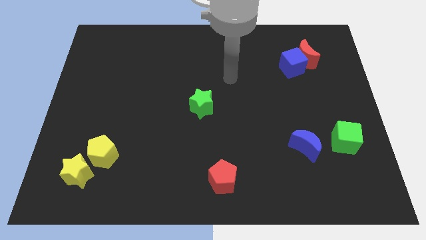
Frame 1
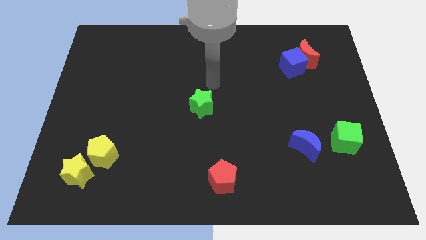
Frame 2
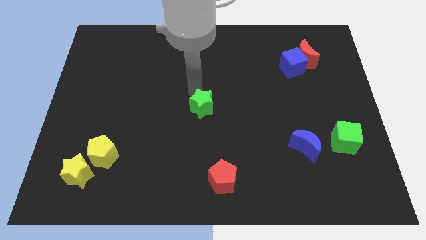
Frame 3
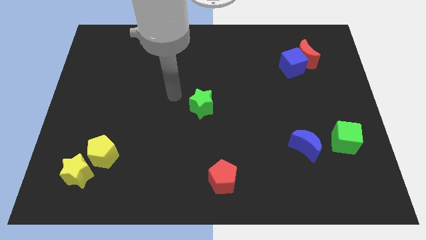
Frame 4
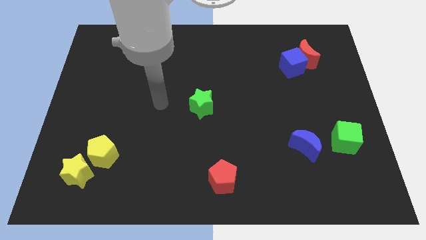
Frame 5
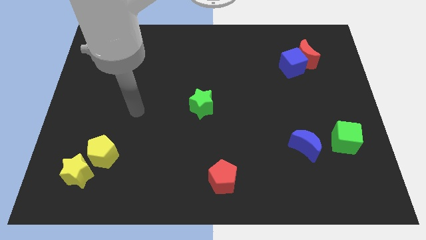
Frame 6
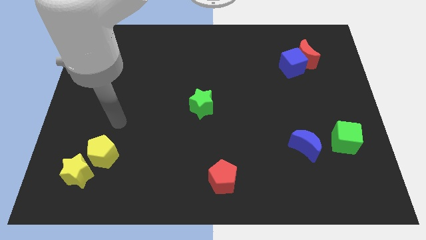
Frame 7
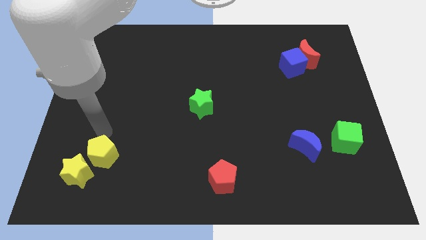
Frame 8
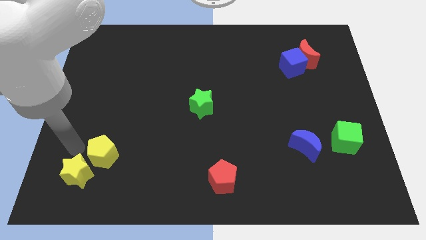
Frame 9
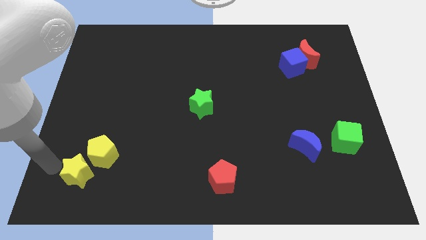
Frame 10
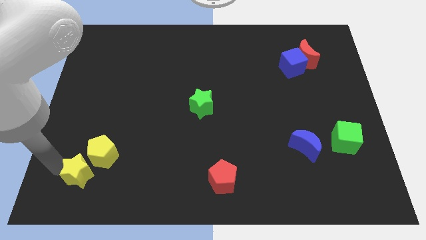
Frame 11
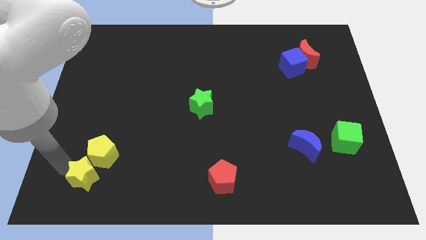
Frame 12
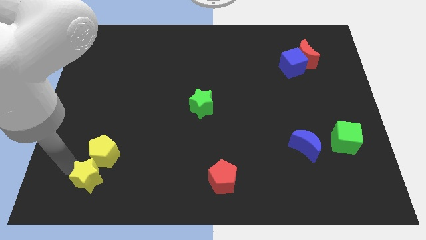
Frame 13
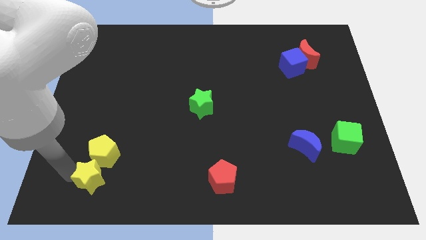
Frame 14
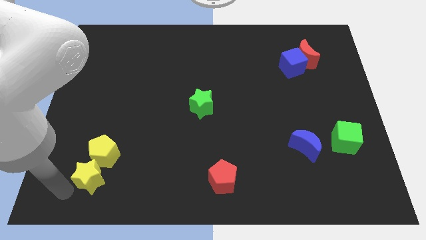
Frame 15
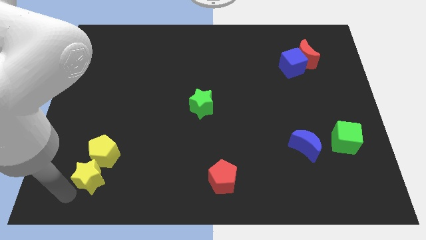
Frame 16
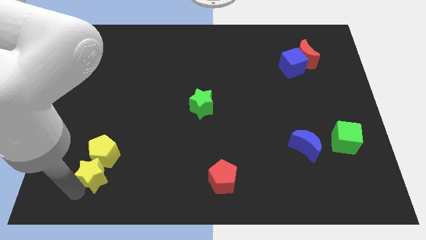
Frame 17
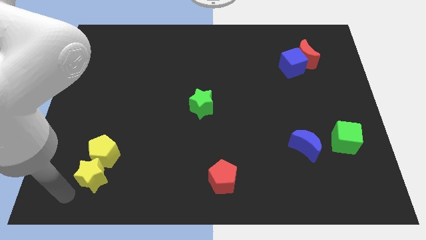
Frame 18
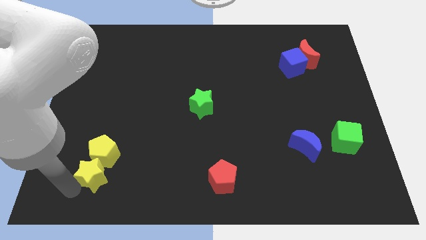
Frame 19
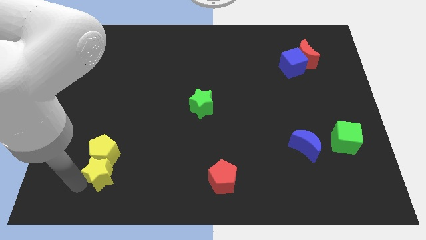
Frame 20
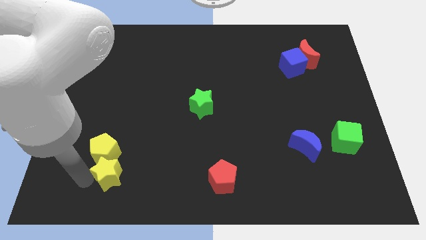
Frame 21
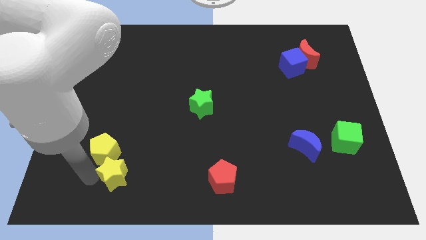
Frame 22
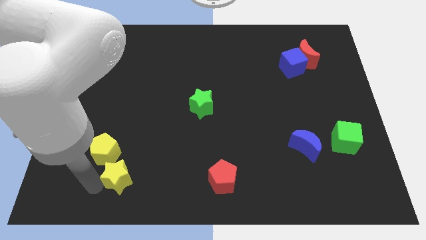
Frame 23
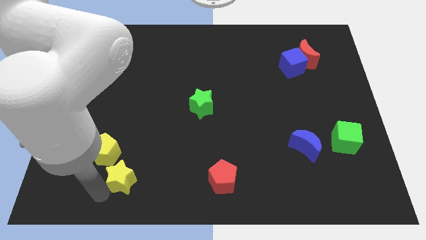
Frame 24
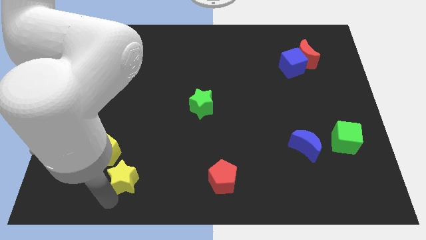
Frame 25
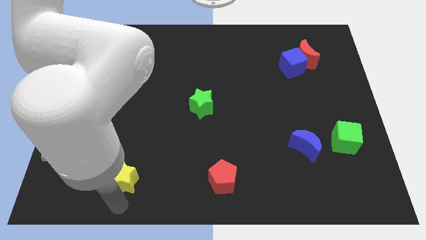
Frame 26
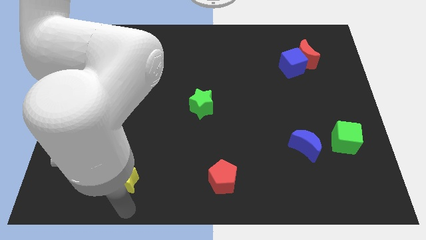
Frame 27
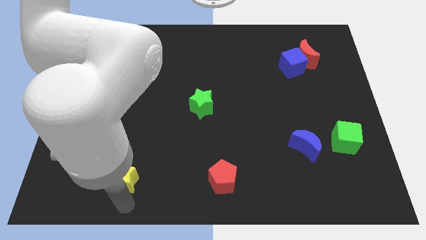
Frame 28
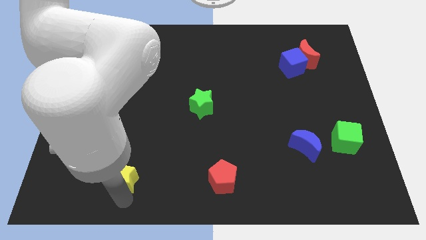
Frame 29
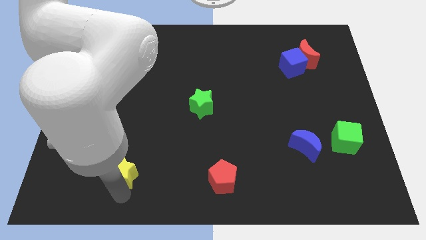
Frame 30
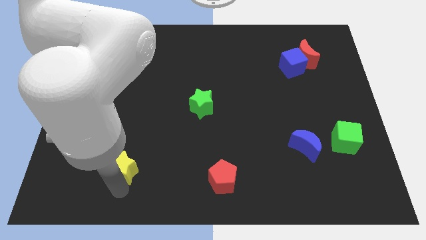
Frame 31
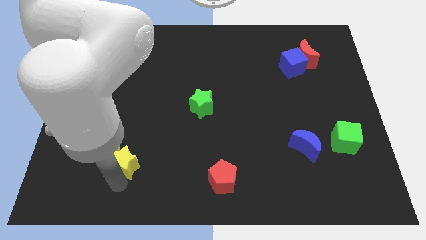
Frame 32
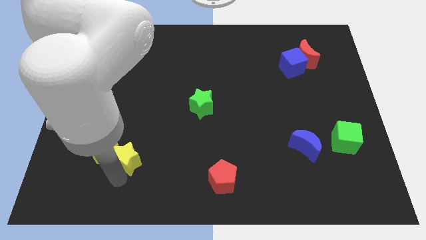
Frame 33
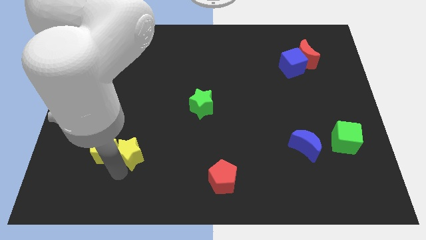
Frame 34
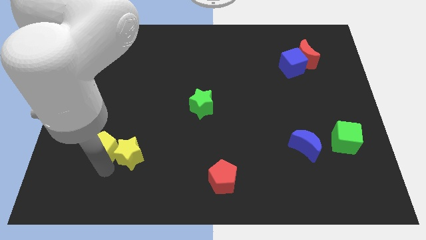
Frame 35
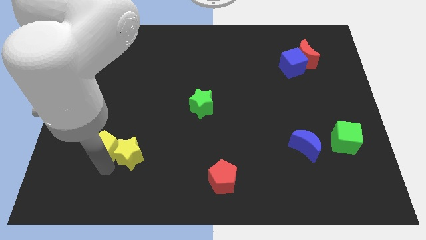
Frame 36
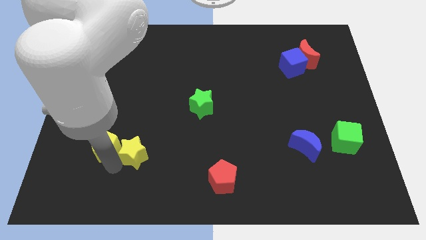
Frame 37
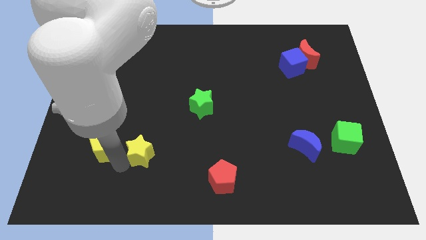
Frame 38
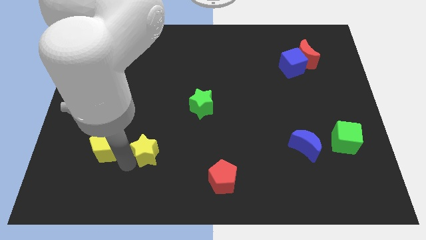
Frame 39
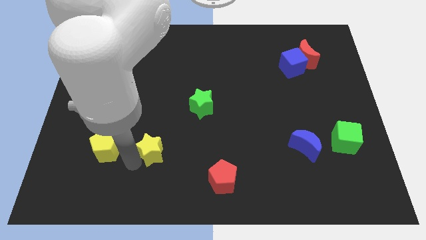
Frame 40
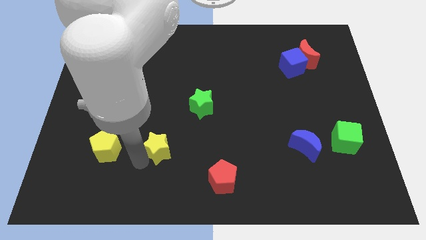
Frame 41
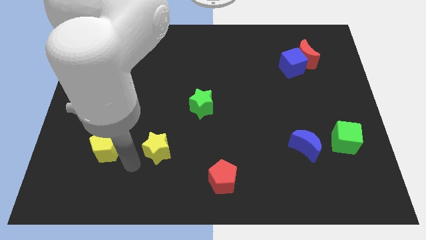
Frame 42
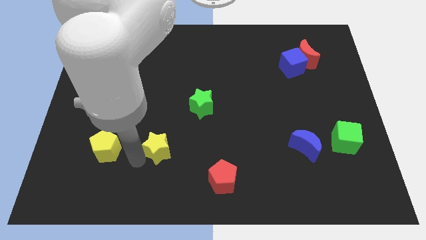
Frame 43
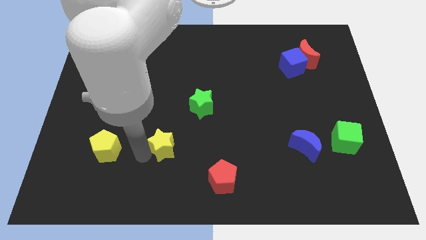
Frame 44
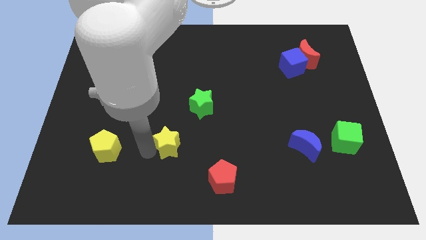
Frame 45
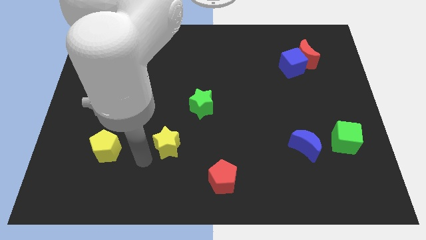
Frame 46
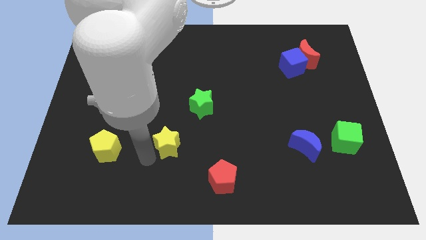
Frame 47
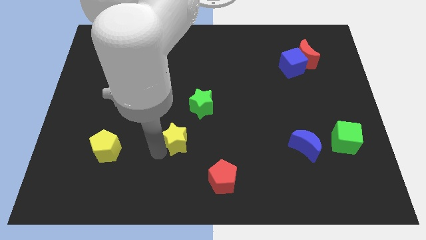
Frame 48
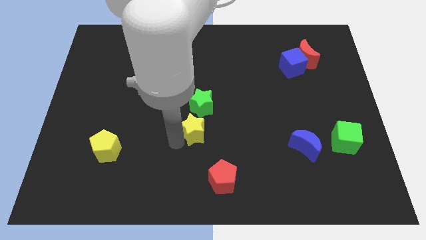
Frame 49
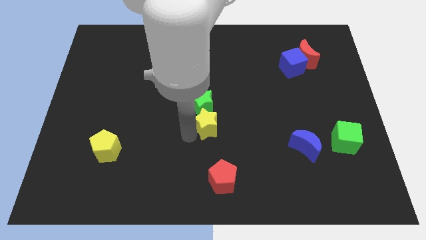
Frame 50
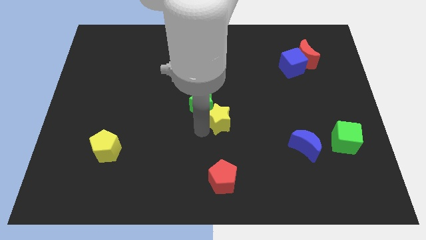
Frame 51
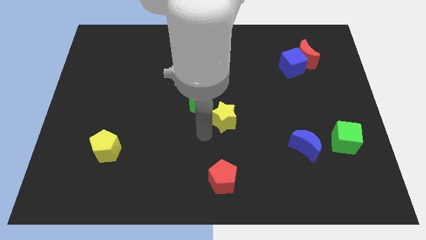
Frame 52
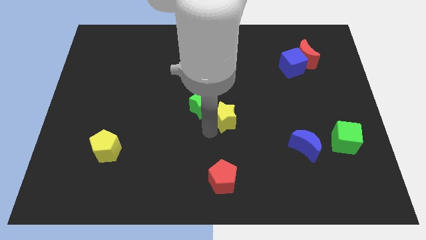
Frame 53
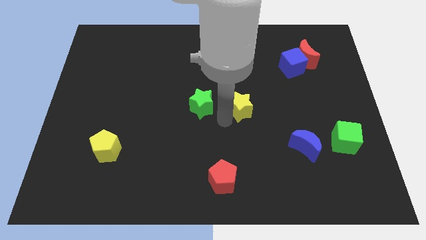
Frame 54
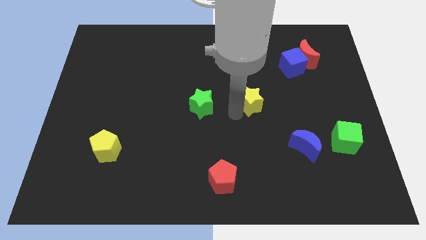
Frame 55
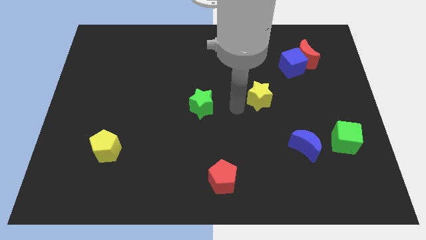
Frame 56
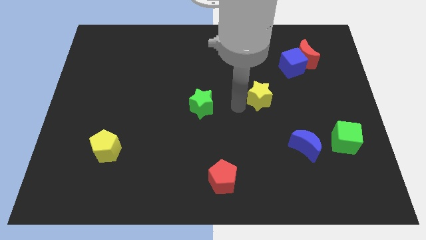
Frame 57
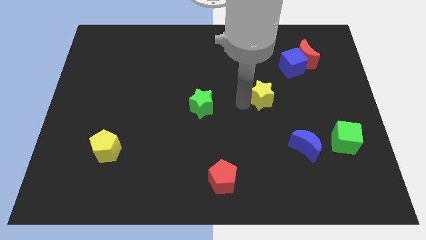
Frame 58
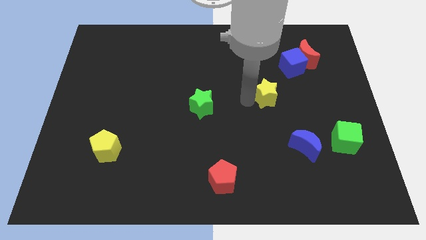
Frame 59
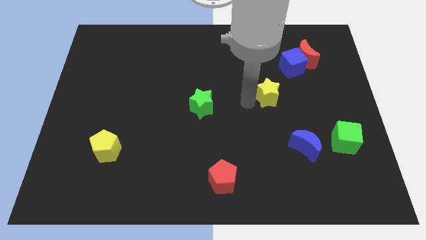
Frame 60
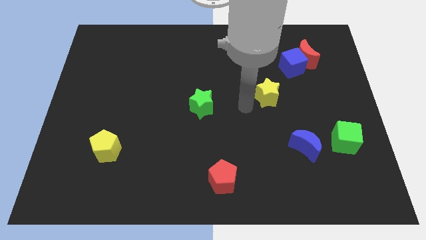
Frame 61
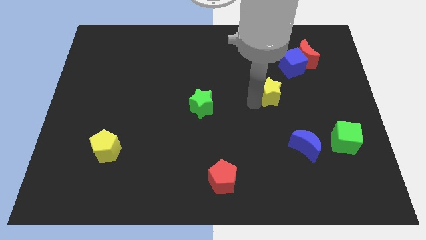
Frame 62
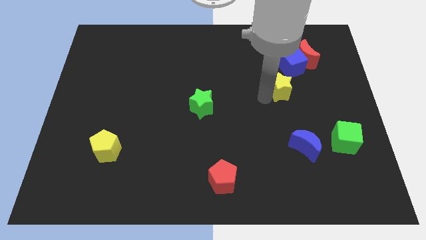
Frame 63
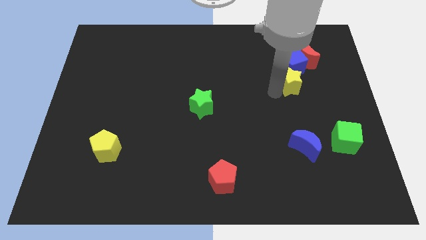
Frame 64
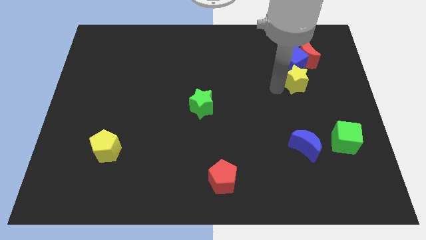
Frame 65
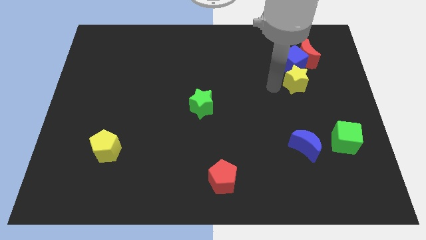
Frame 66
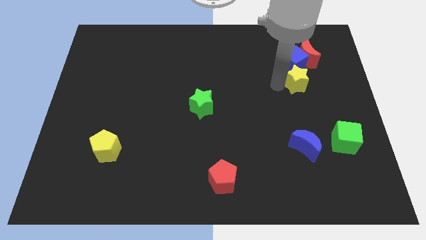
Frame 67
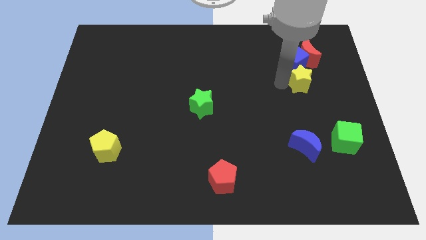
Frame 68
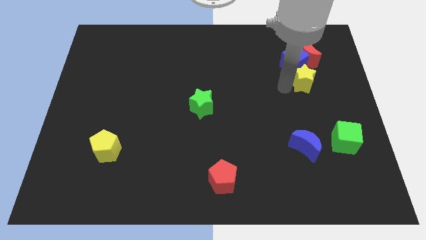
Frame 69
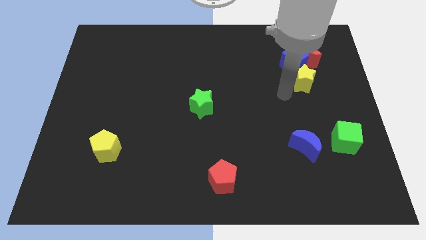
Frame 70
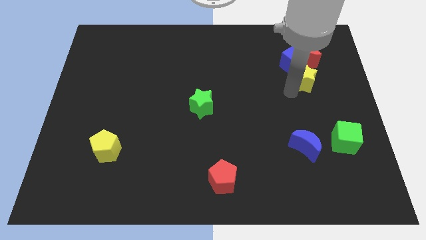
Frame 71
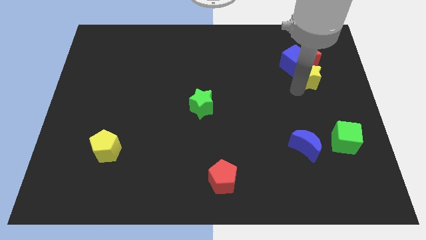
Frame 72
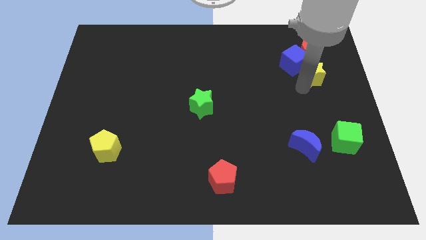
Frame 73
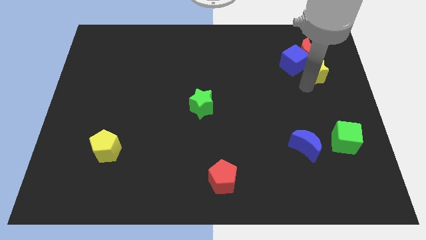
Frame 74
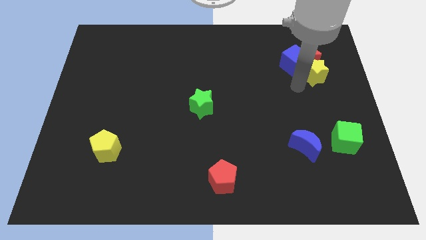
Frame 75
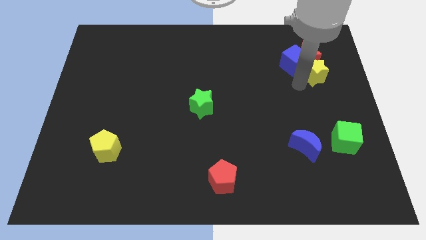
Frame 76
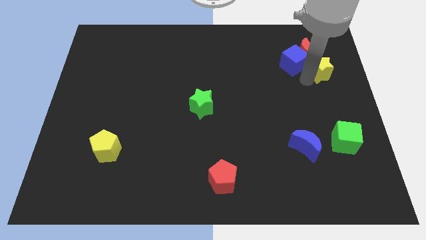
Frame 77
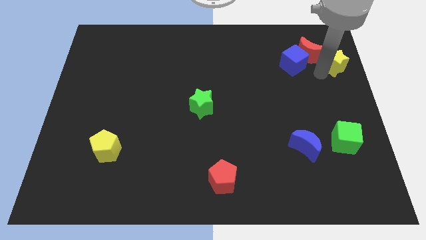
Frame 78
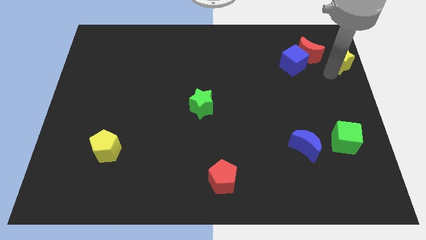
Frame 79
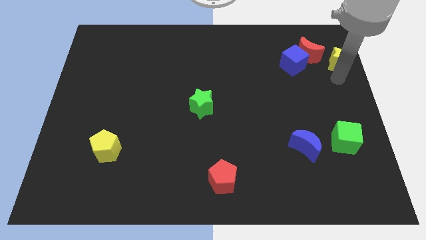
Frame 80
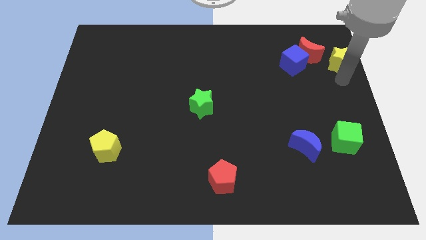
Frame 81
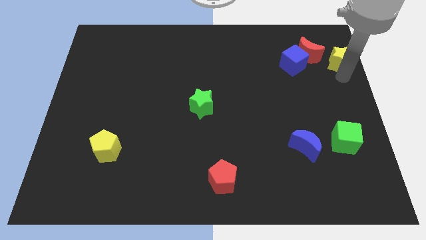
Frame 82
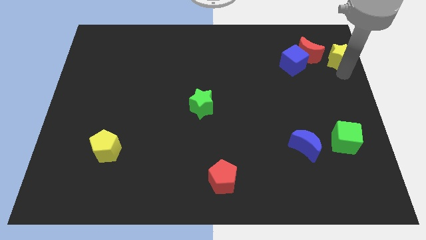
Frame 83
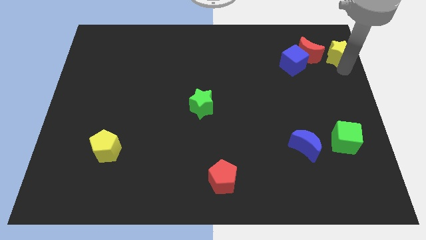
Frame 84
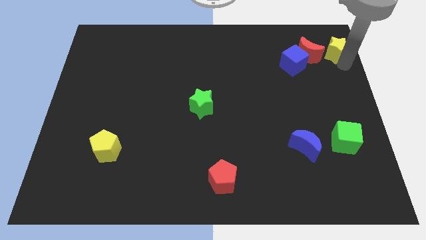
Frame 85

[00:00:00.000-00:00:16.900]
put the yellow star to the top right of the board
